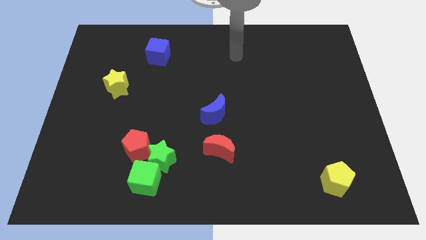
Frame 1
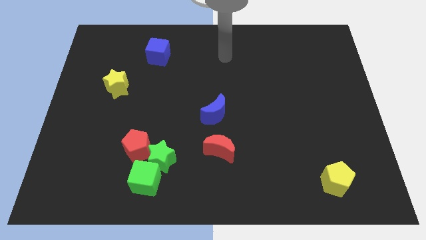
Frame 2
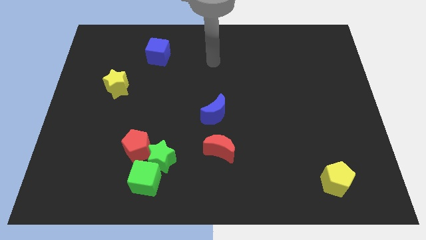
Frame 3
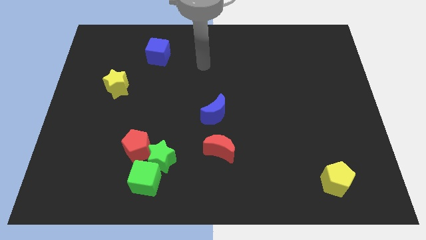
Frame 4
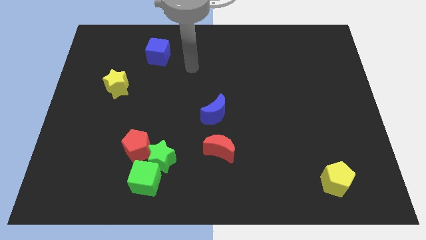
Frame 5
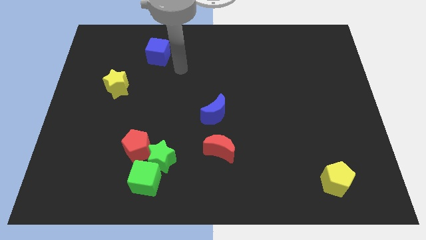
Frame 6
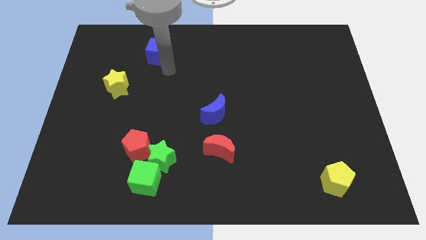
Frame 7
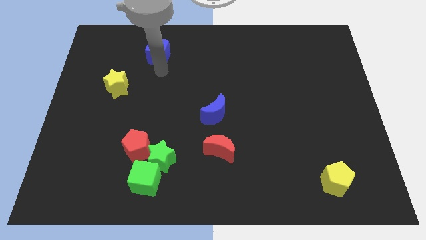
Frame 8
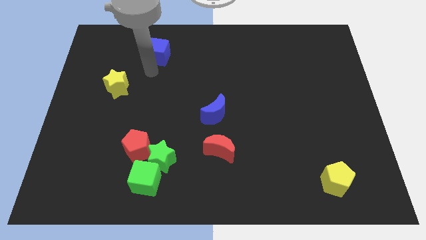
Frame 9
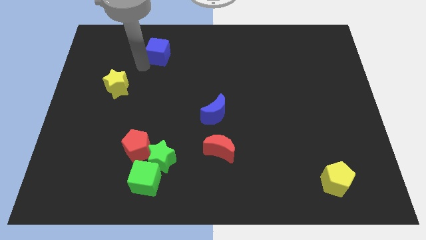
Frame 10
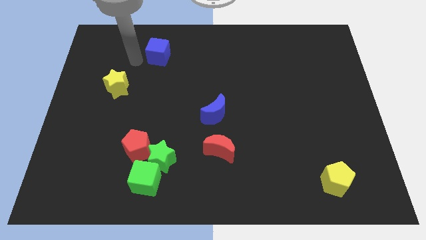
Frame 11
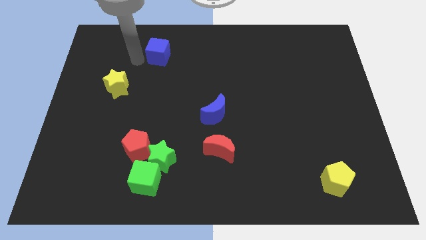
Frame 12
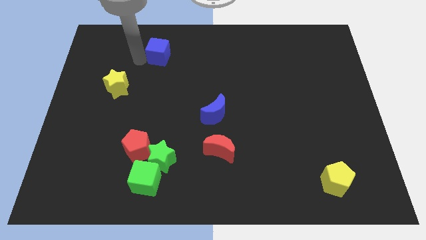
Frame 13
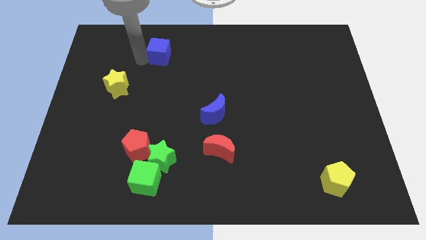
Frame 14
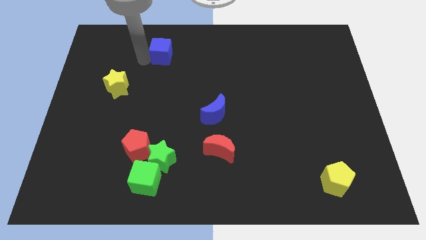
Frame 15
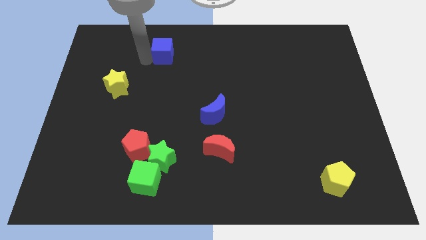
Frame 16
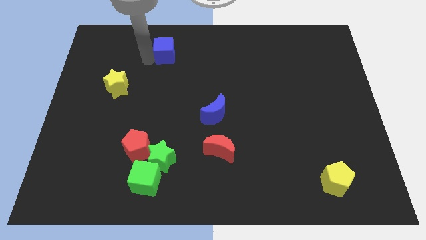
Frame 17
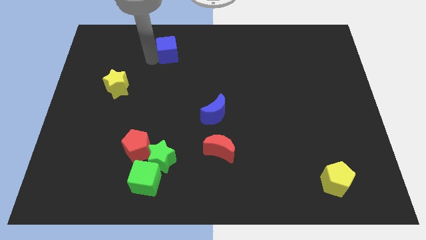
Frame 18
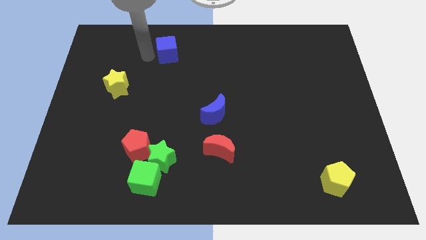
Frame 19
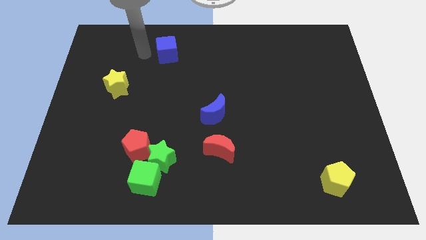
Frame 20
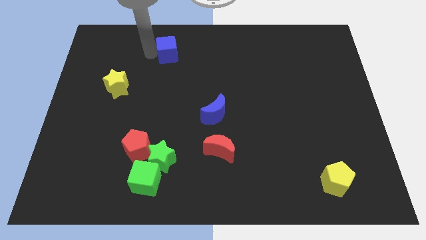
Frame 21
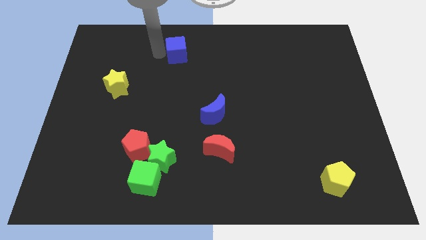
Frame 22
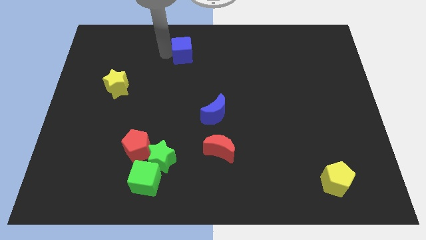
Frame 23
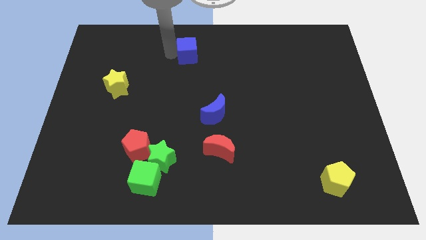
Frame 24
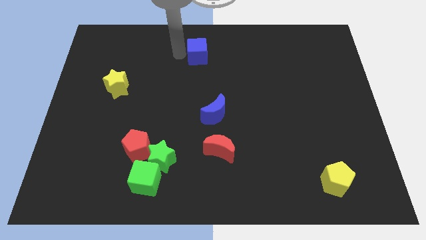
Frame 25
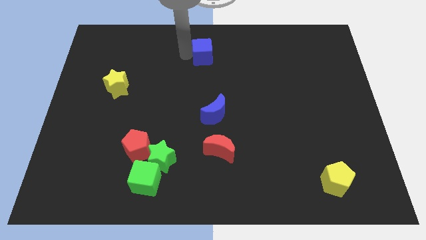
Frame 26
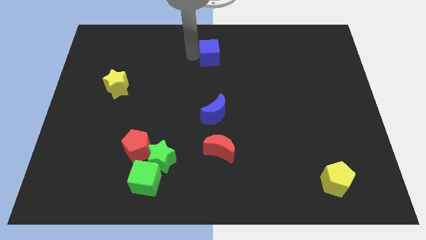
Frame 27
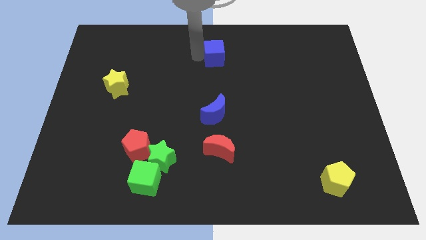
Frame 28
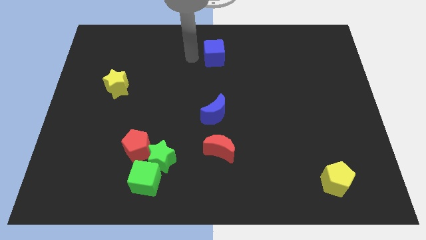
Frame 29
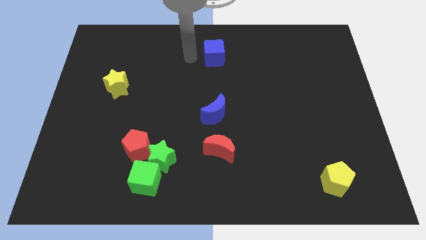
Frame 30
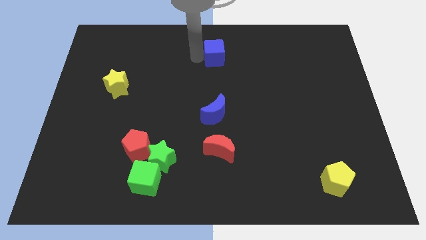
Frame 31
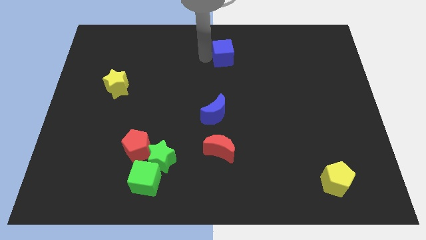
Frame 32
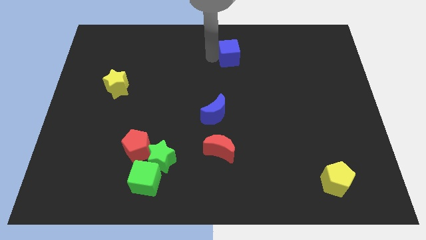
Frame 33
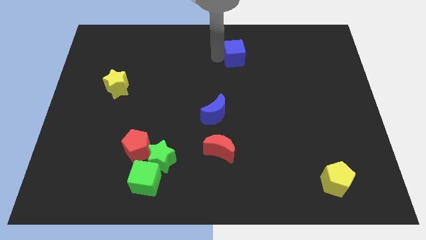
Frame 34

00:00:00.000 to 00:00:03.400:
move the blue cube right

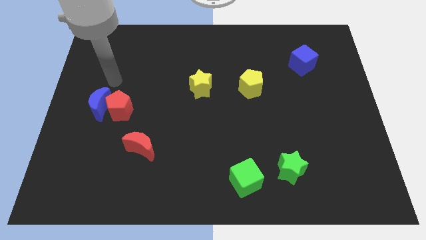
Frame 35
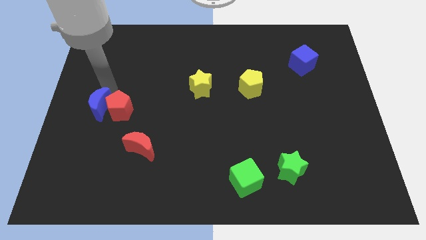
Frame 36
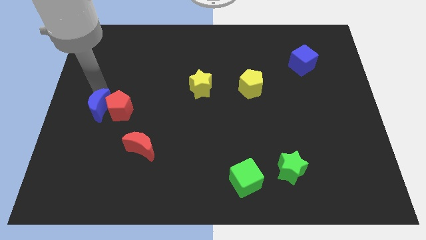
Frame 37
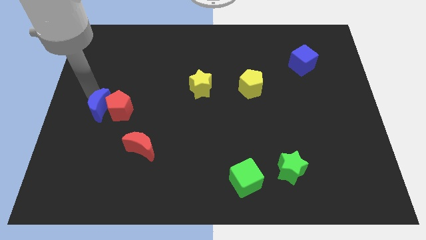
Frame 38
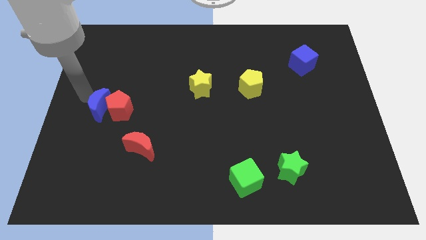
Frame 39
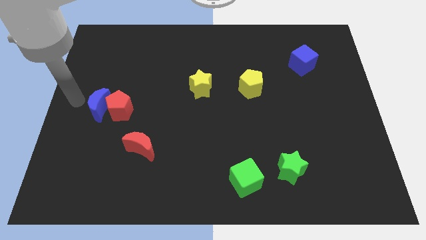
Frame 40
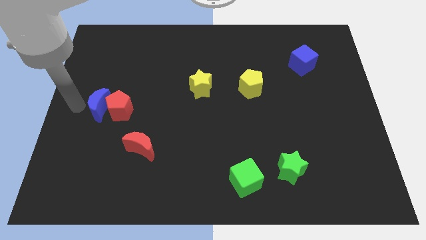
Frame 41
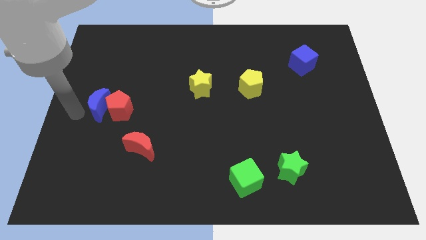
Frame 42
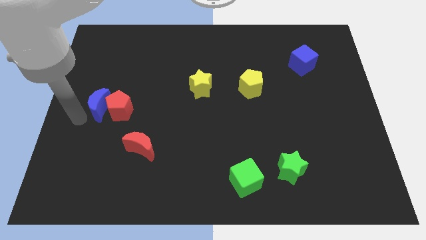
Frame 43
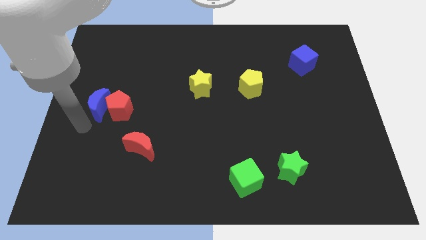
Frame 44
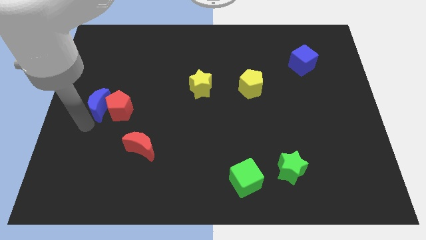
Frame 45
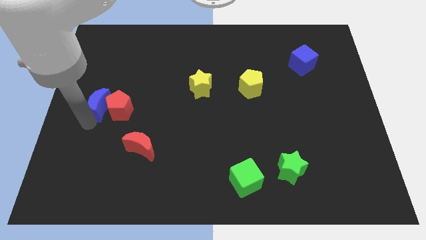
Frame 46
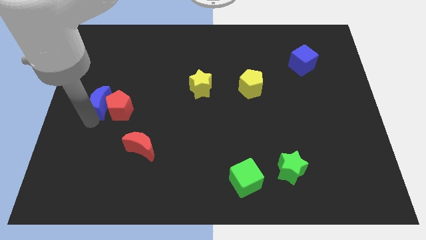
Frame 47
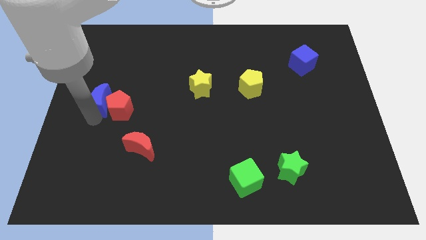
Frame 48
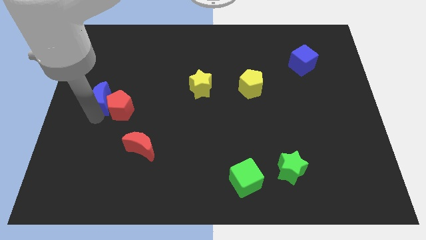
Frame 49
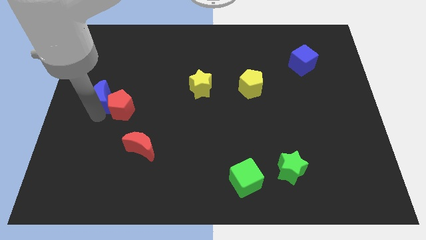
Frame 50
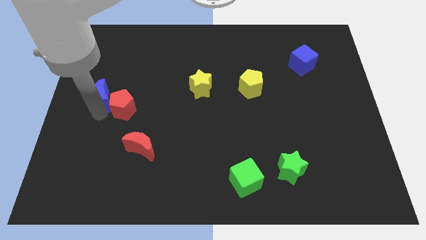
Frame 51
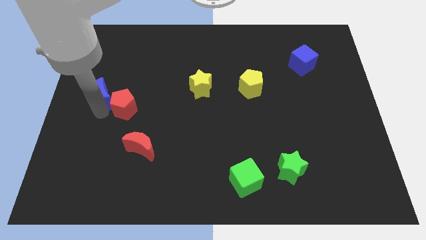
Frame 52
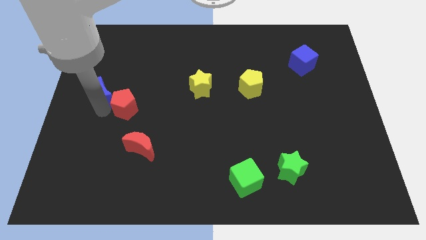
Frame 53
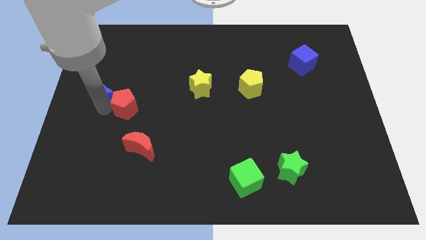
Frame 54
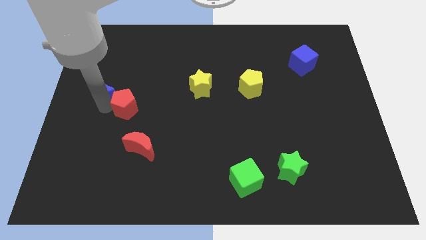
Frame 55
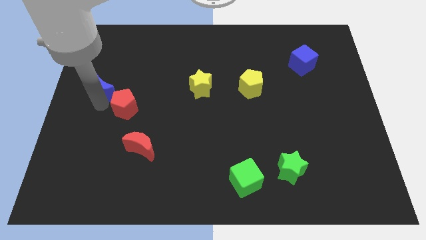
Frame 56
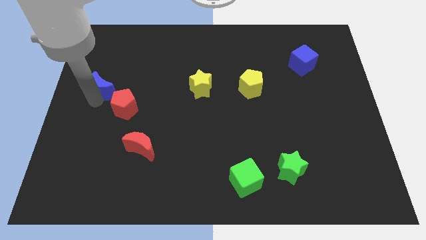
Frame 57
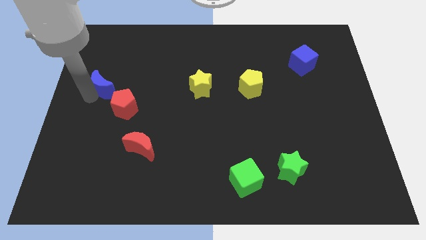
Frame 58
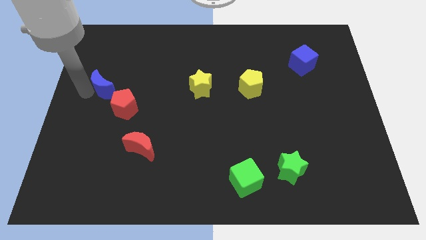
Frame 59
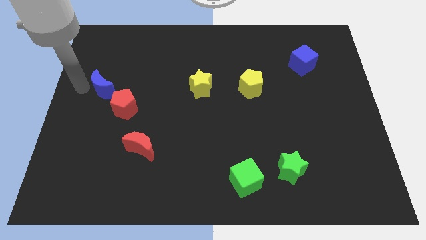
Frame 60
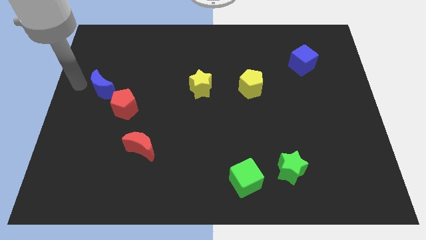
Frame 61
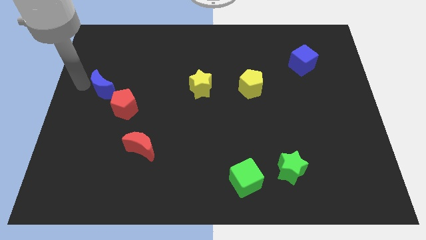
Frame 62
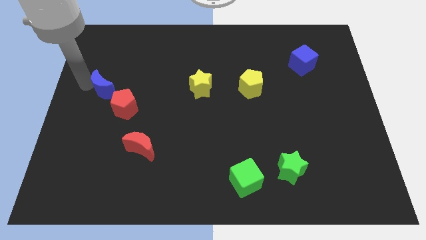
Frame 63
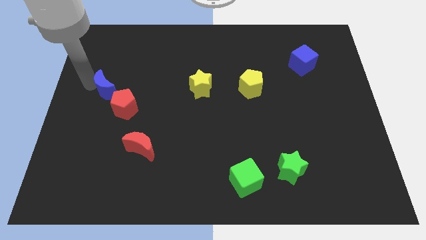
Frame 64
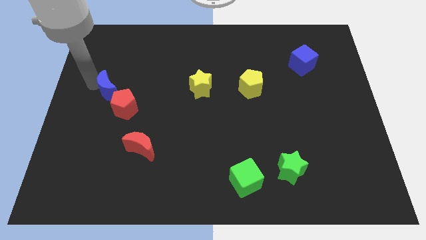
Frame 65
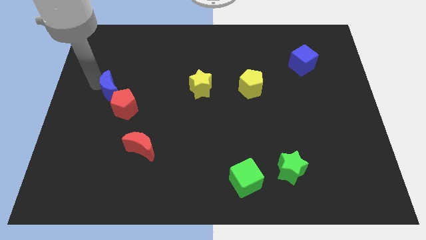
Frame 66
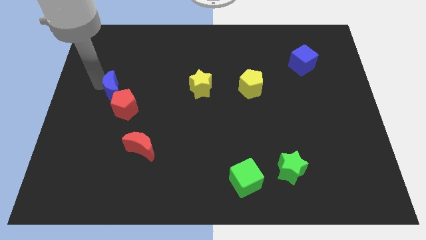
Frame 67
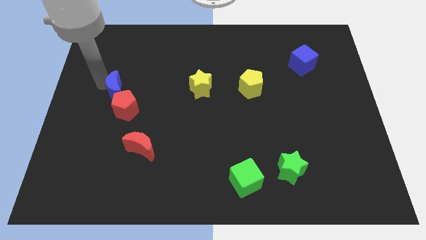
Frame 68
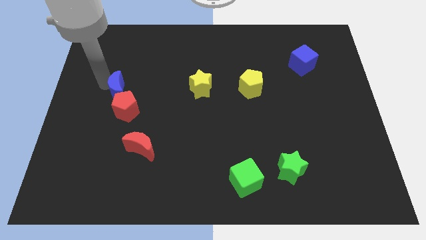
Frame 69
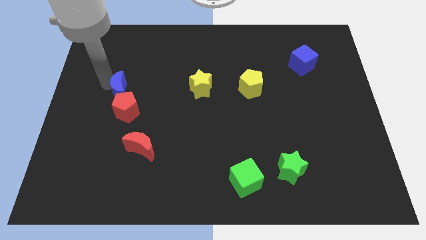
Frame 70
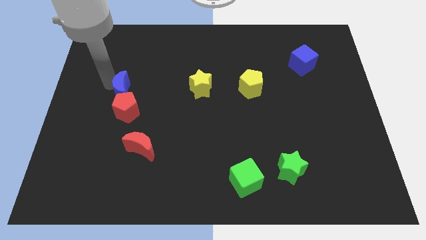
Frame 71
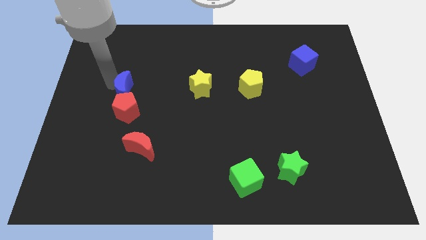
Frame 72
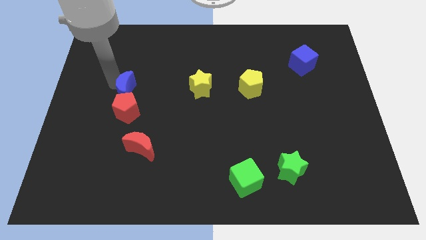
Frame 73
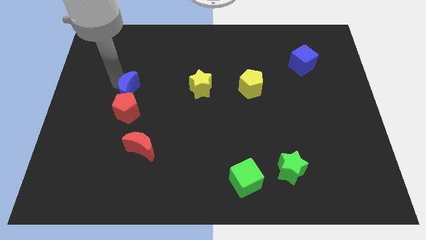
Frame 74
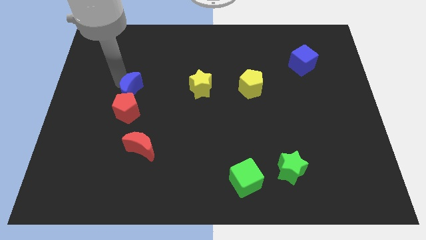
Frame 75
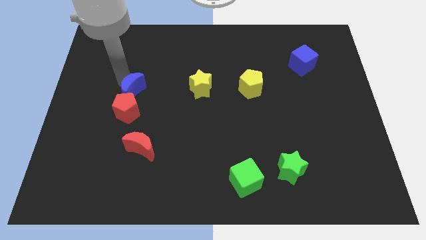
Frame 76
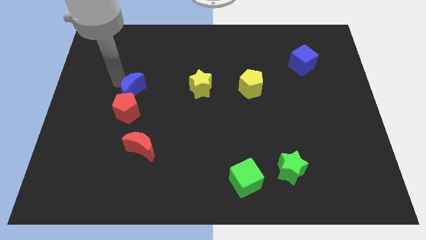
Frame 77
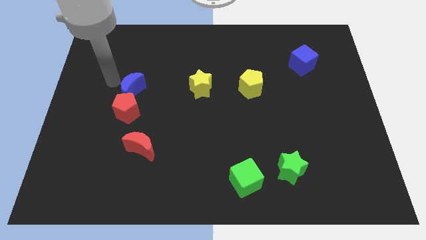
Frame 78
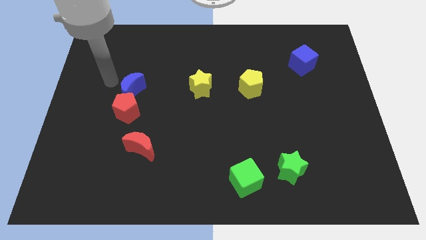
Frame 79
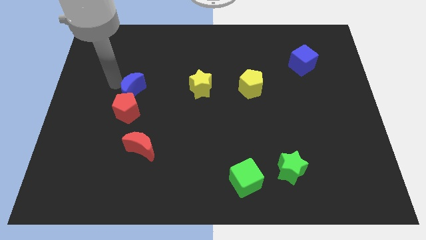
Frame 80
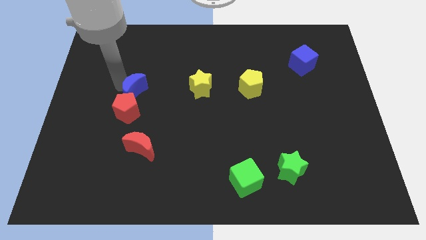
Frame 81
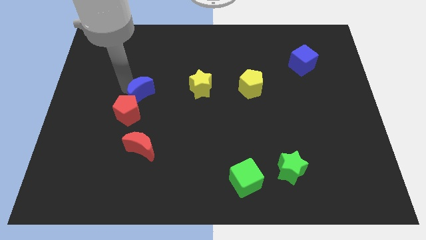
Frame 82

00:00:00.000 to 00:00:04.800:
push the blue moon a bit right

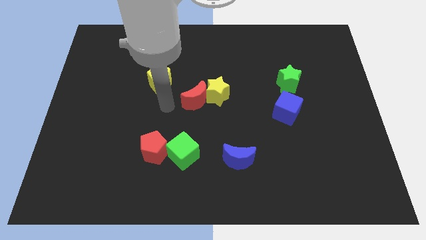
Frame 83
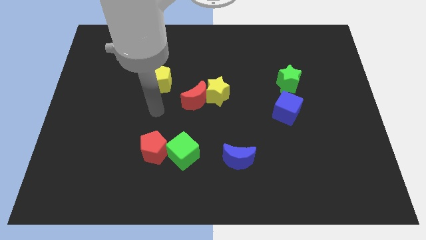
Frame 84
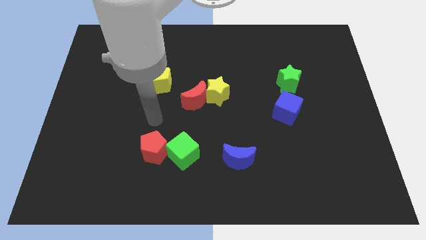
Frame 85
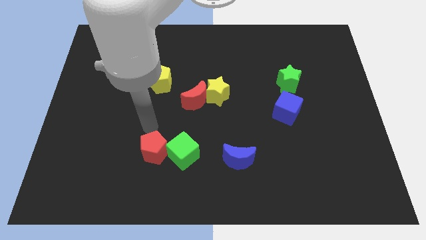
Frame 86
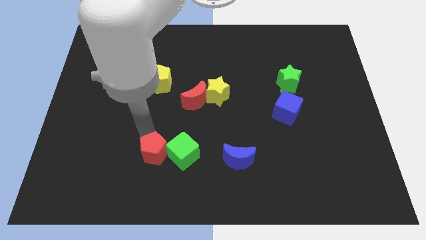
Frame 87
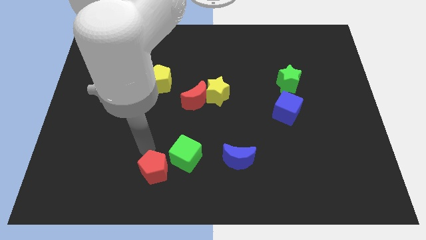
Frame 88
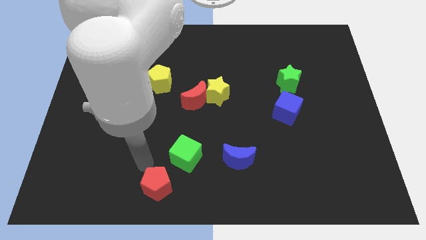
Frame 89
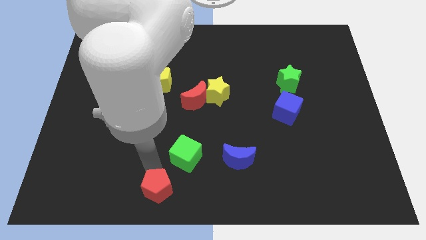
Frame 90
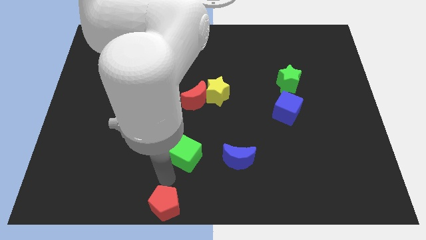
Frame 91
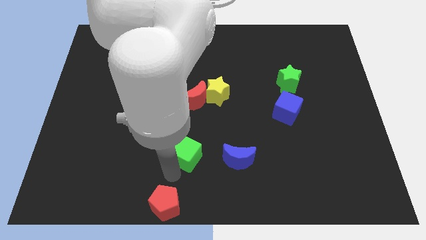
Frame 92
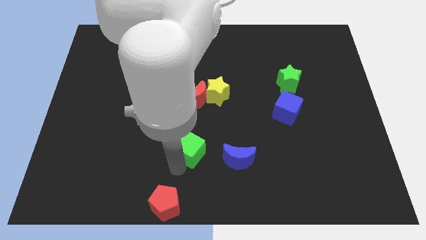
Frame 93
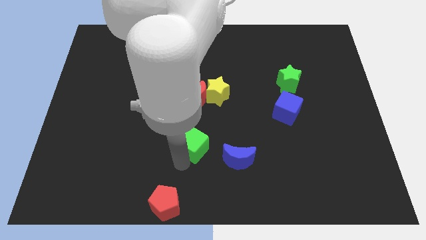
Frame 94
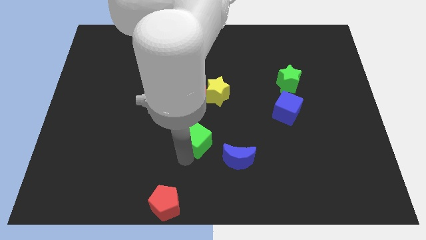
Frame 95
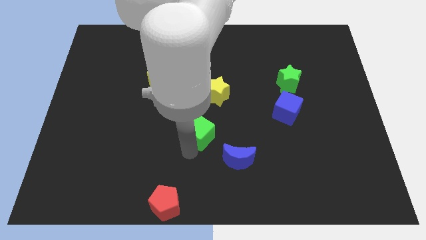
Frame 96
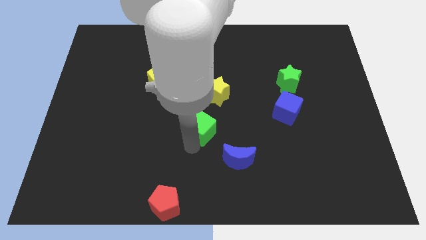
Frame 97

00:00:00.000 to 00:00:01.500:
slightly push the green cube upwards and right diagonally
